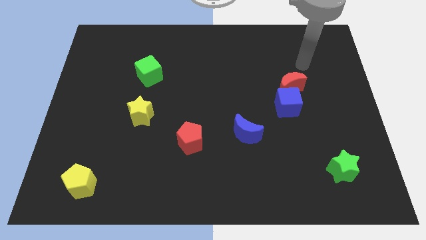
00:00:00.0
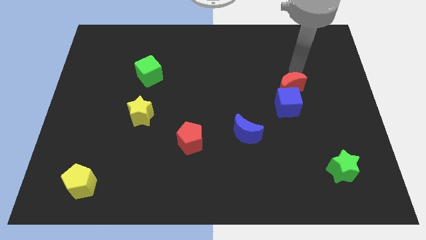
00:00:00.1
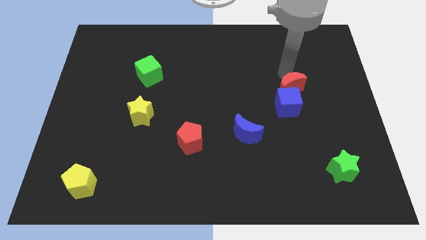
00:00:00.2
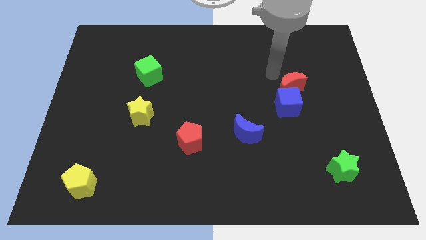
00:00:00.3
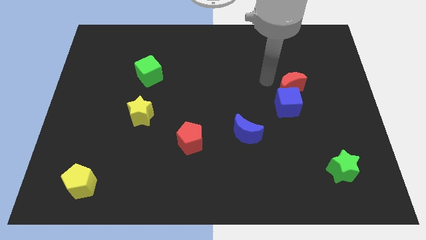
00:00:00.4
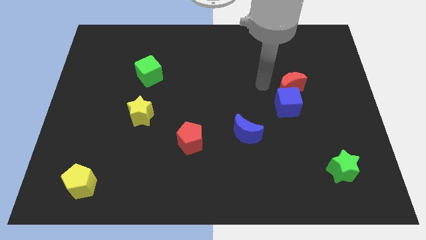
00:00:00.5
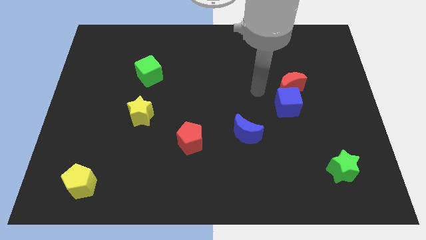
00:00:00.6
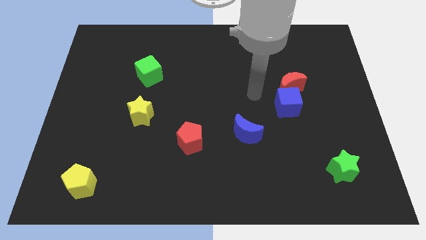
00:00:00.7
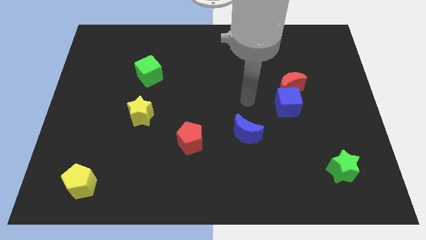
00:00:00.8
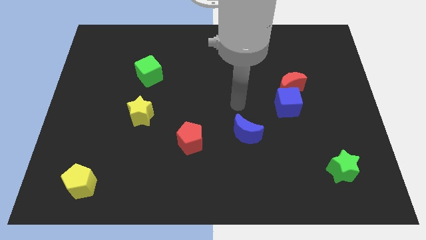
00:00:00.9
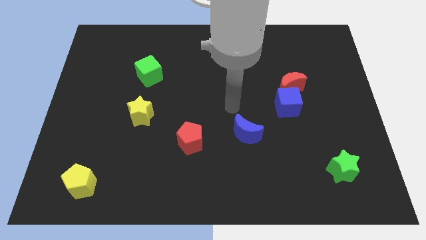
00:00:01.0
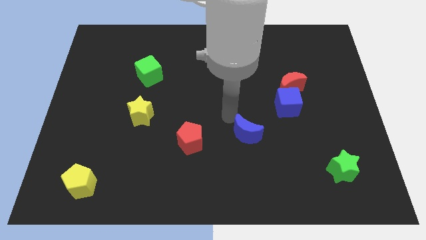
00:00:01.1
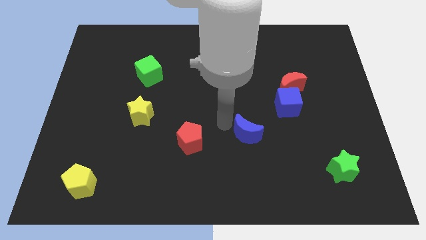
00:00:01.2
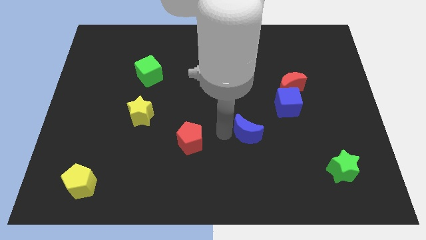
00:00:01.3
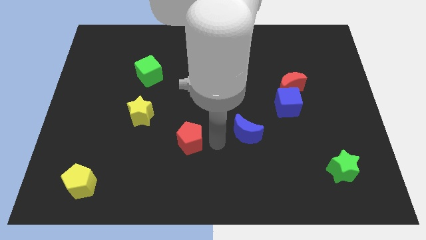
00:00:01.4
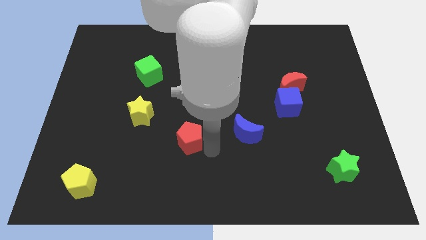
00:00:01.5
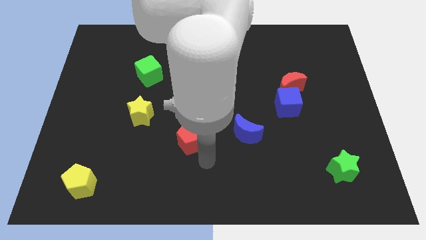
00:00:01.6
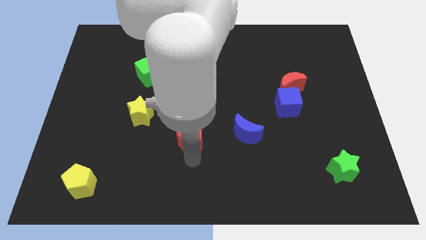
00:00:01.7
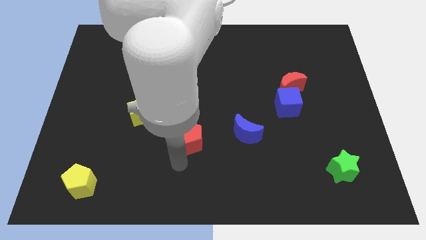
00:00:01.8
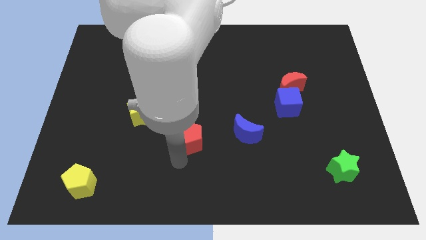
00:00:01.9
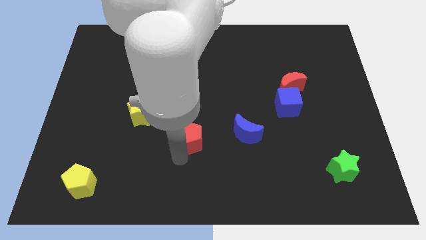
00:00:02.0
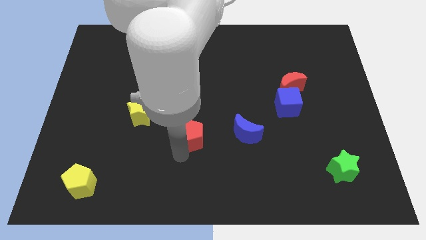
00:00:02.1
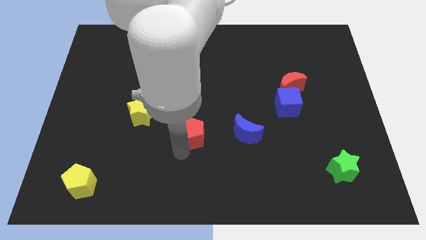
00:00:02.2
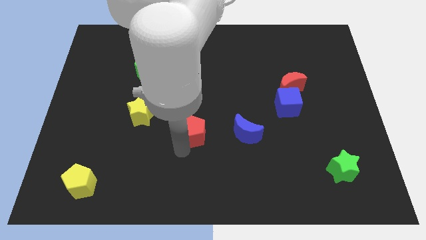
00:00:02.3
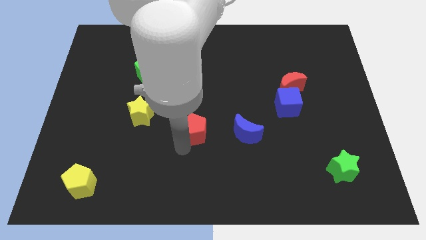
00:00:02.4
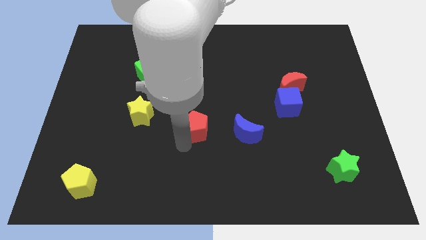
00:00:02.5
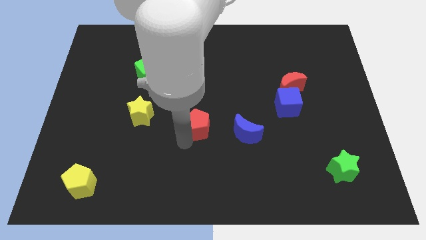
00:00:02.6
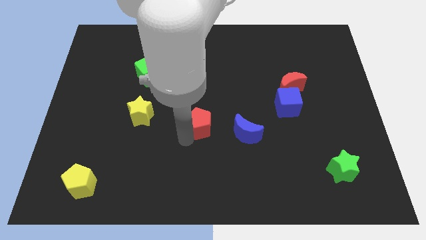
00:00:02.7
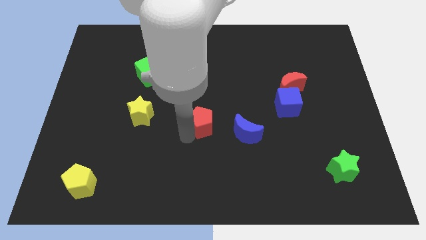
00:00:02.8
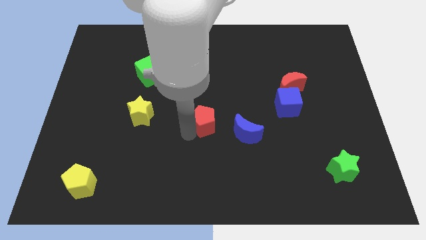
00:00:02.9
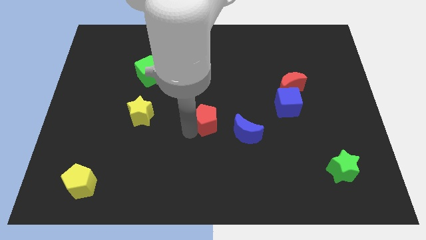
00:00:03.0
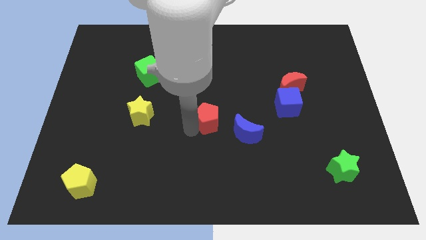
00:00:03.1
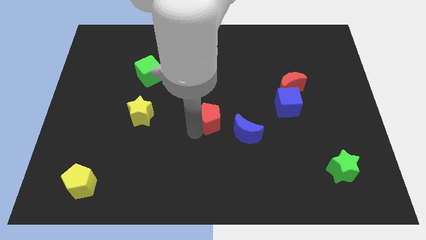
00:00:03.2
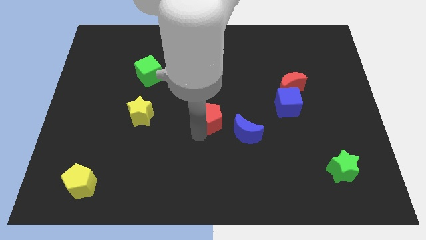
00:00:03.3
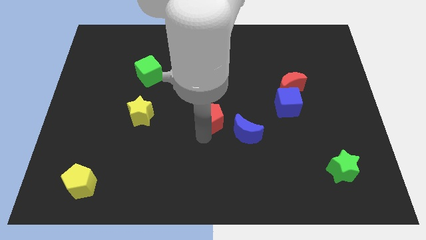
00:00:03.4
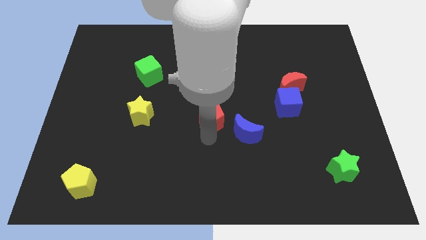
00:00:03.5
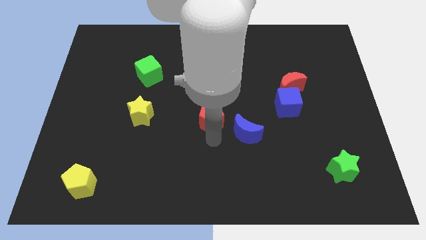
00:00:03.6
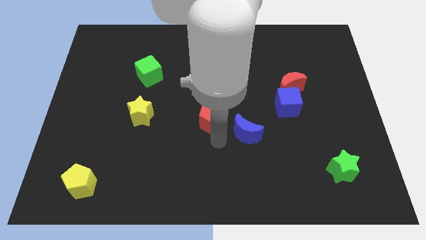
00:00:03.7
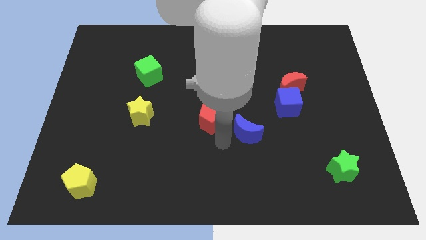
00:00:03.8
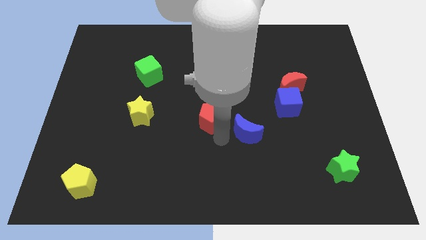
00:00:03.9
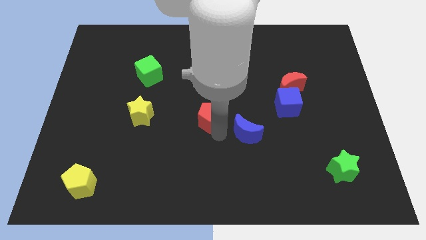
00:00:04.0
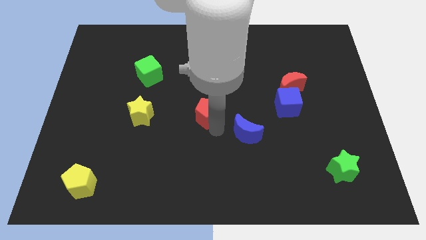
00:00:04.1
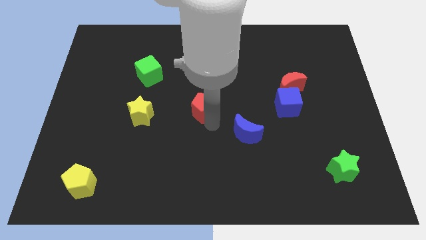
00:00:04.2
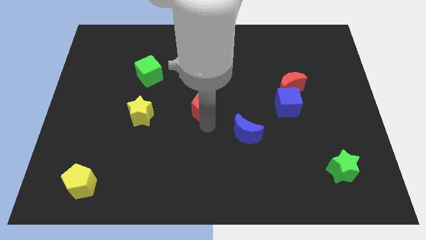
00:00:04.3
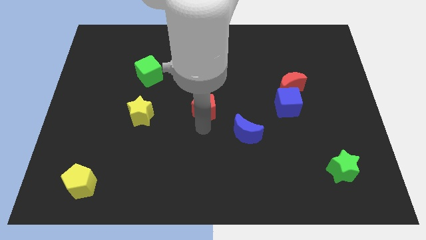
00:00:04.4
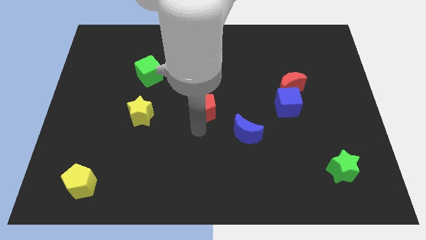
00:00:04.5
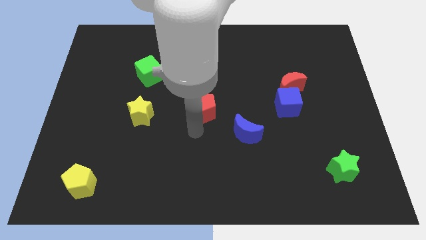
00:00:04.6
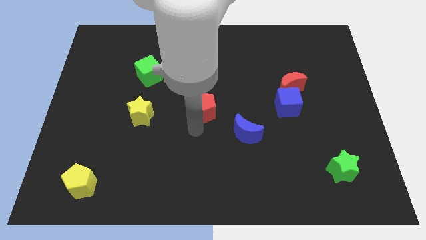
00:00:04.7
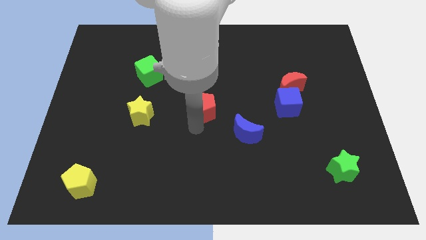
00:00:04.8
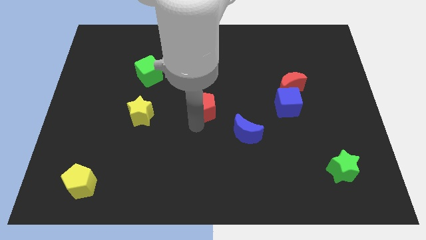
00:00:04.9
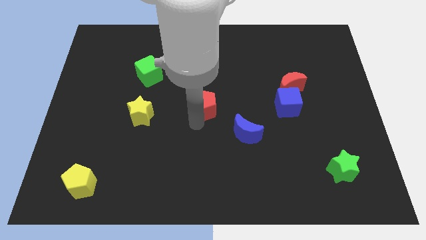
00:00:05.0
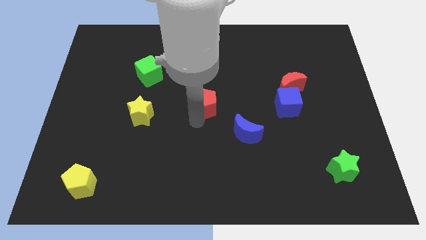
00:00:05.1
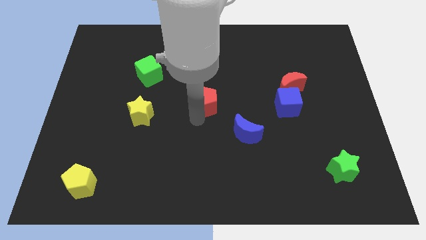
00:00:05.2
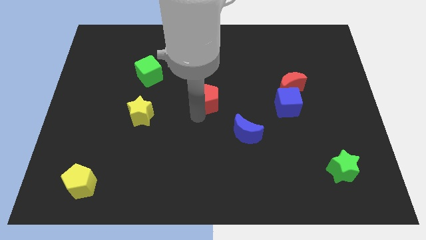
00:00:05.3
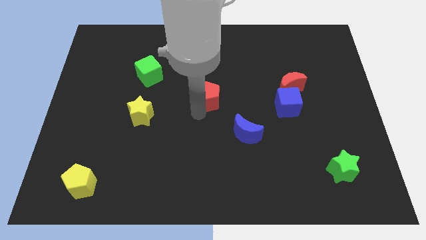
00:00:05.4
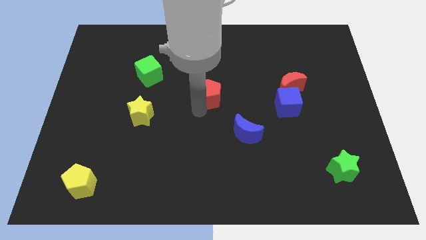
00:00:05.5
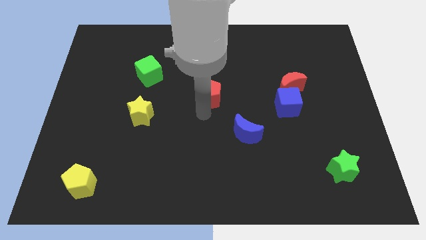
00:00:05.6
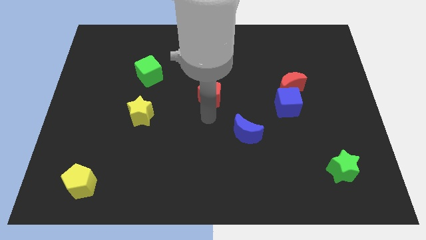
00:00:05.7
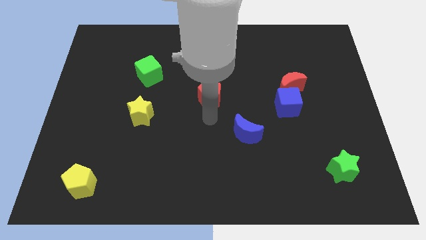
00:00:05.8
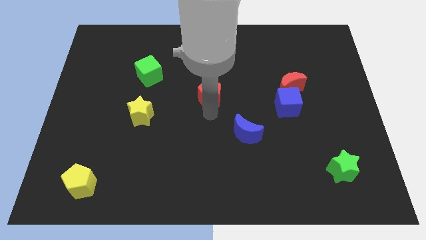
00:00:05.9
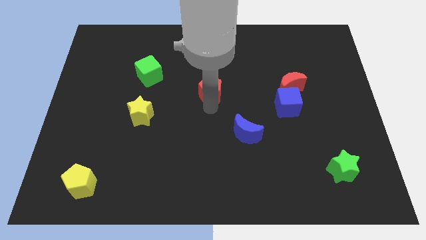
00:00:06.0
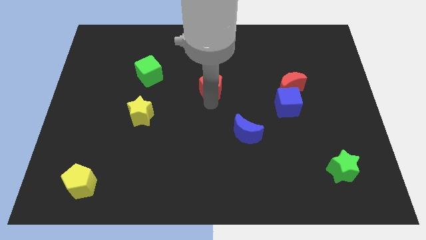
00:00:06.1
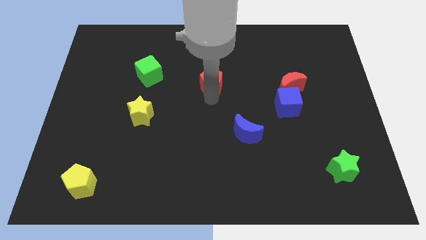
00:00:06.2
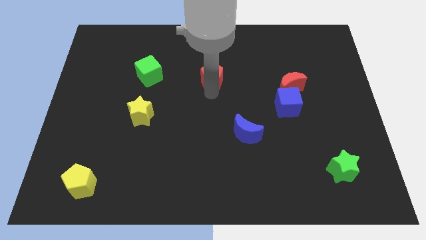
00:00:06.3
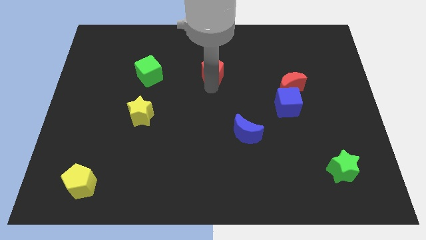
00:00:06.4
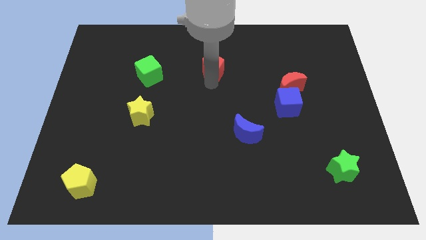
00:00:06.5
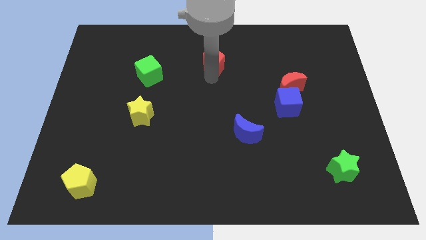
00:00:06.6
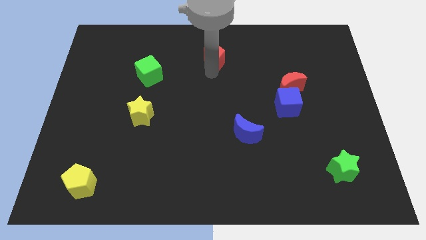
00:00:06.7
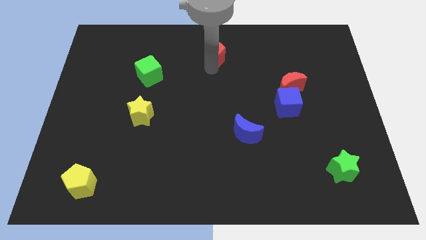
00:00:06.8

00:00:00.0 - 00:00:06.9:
slide the red pentagon to the top side

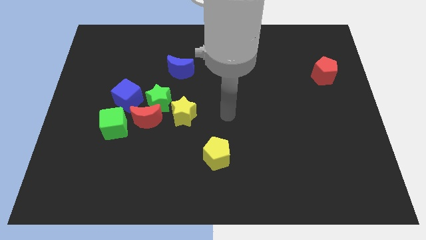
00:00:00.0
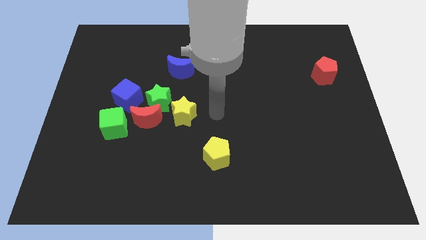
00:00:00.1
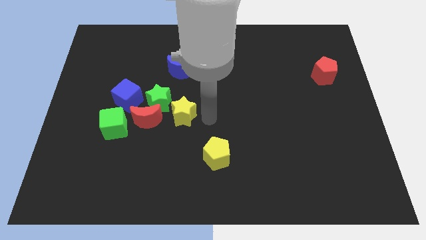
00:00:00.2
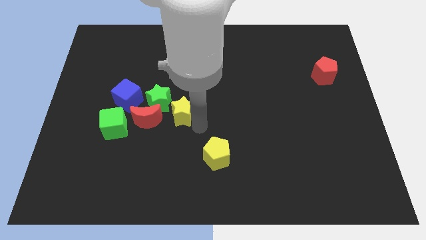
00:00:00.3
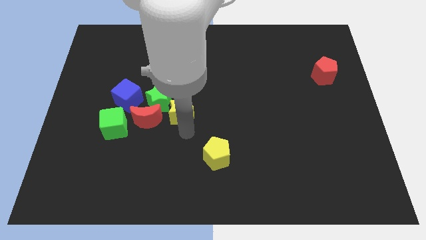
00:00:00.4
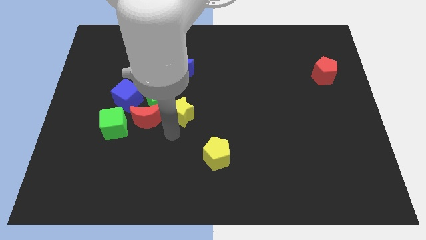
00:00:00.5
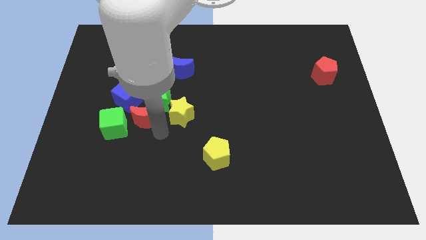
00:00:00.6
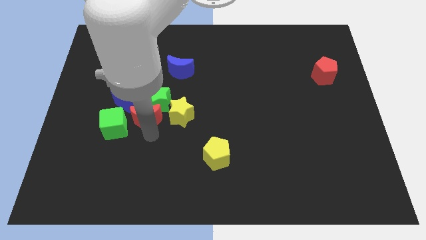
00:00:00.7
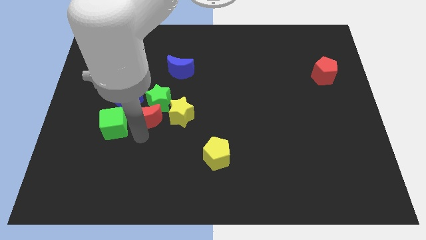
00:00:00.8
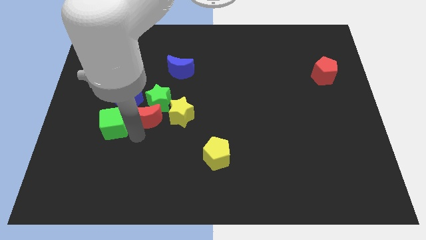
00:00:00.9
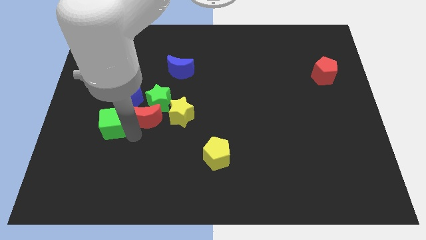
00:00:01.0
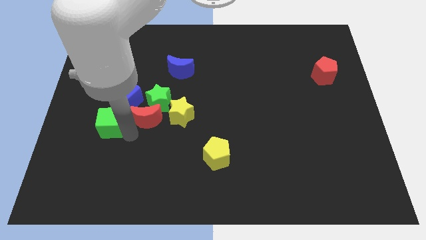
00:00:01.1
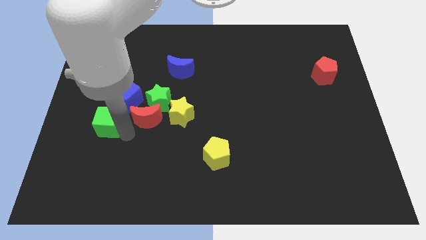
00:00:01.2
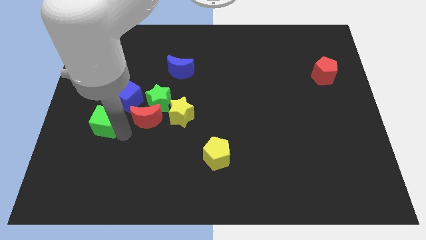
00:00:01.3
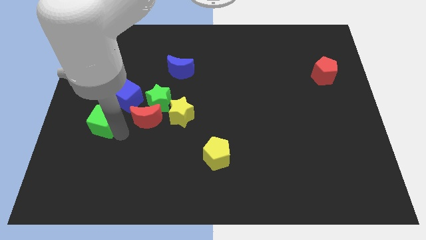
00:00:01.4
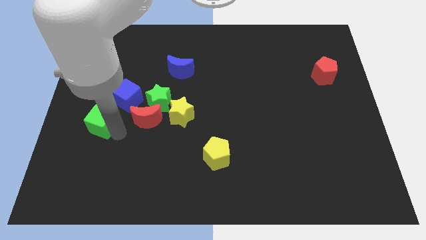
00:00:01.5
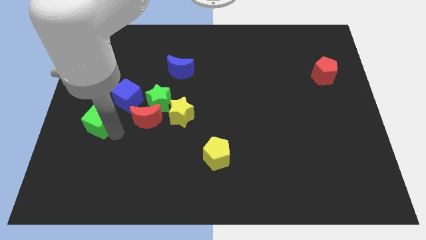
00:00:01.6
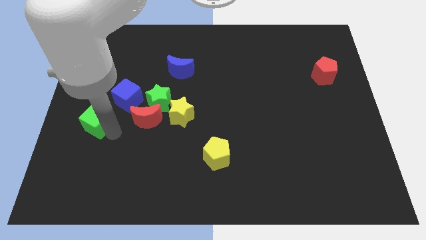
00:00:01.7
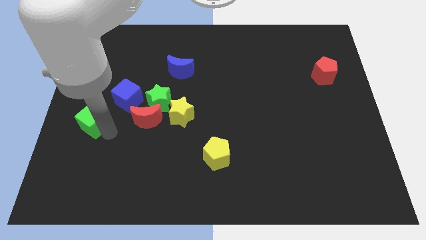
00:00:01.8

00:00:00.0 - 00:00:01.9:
push the green cube to the left side of the board
